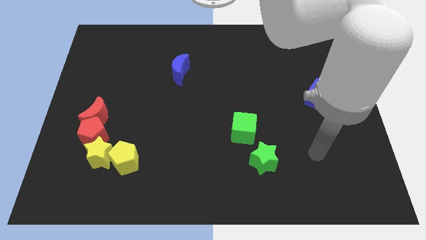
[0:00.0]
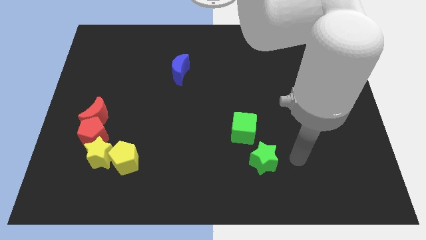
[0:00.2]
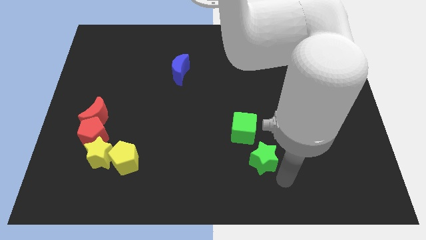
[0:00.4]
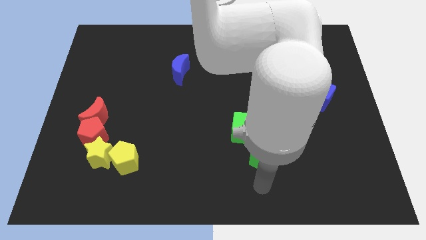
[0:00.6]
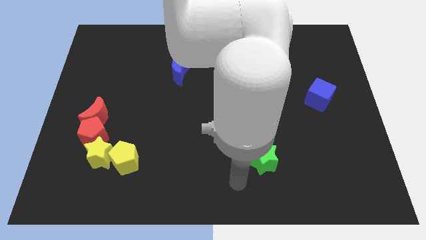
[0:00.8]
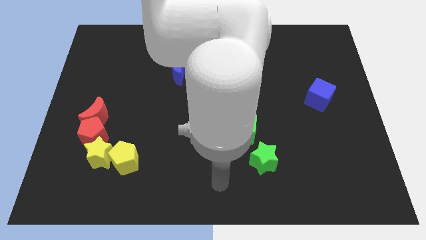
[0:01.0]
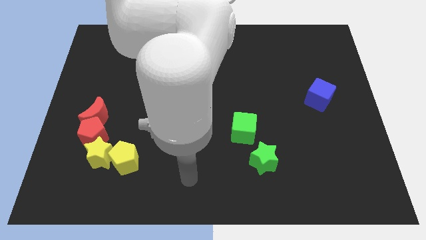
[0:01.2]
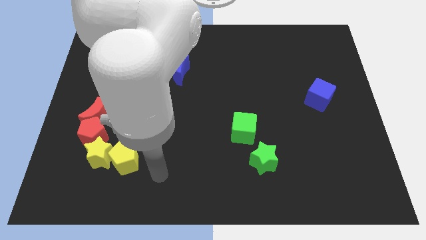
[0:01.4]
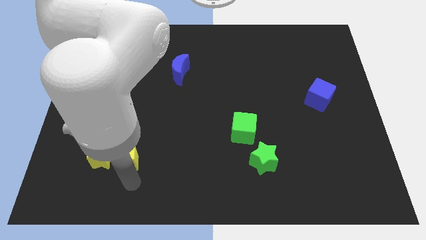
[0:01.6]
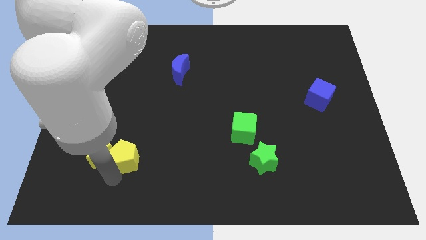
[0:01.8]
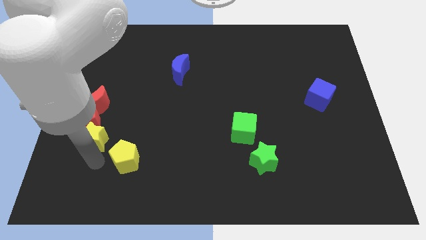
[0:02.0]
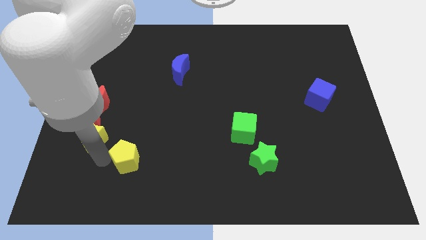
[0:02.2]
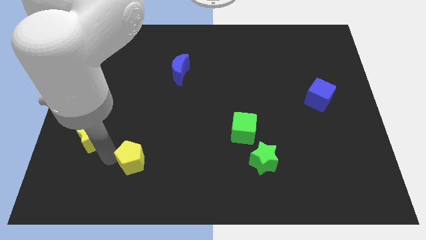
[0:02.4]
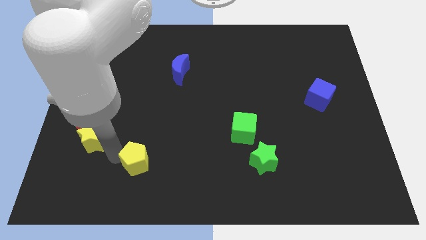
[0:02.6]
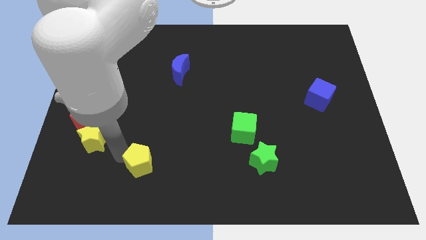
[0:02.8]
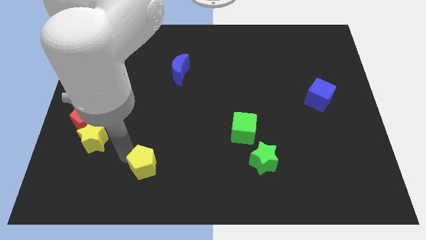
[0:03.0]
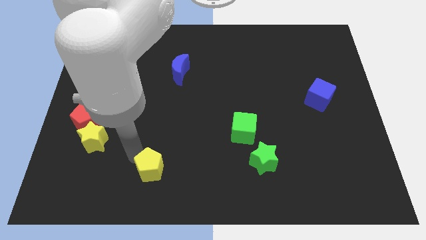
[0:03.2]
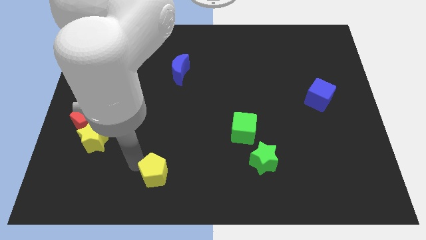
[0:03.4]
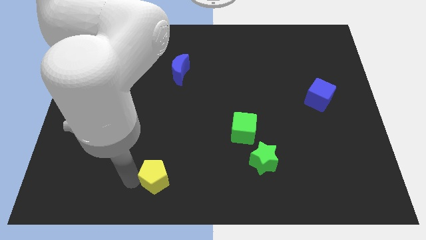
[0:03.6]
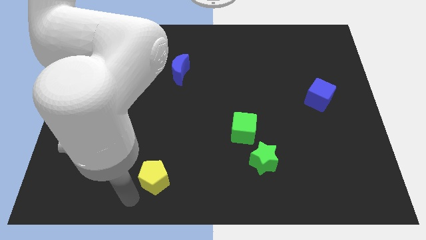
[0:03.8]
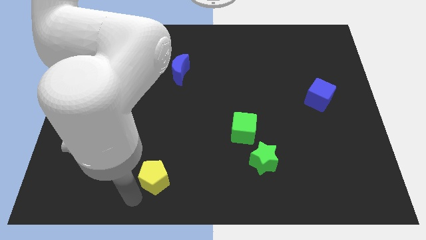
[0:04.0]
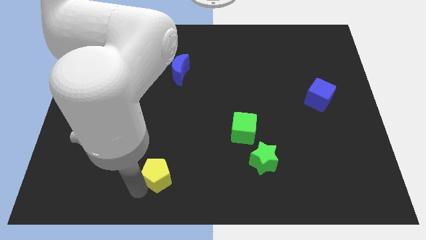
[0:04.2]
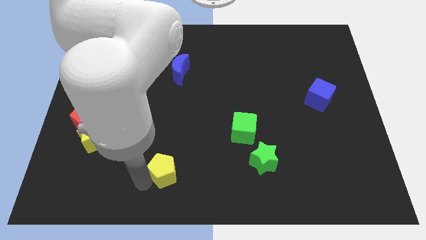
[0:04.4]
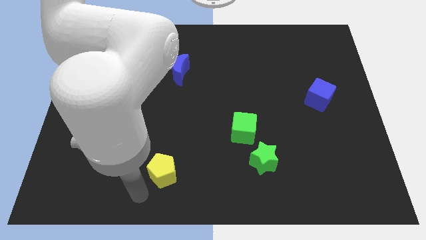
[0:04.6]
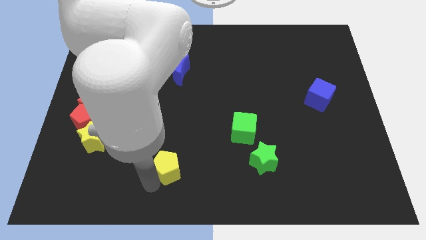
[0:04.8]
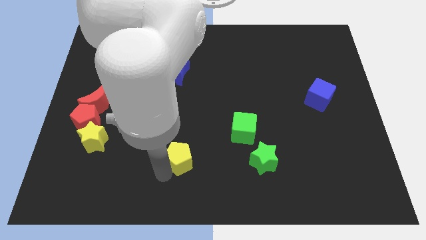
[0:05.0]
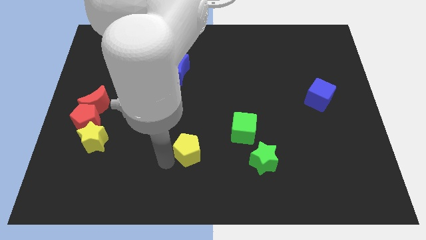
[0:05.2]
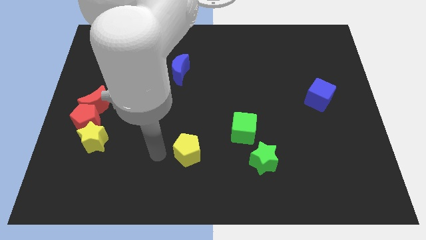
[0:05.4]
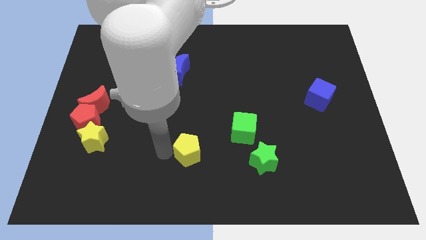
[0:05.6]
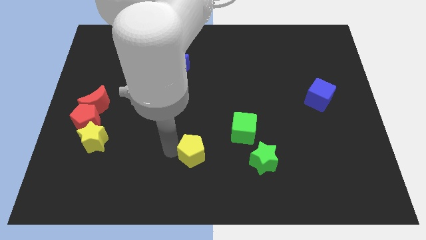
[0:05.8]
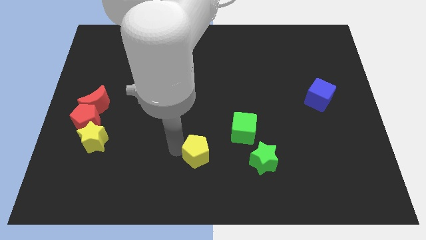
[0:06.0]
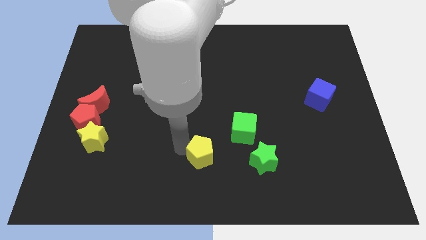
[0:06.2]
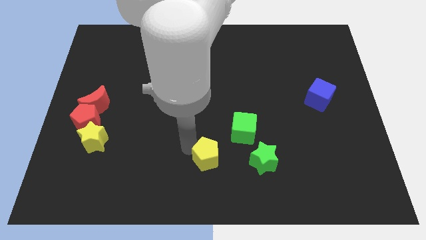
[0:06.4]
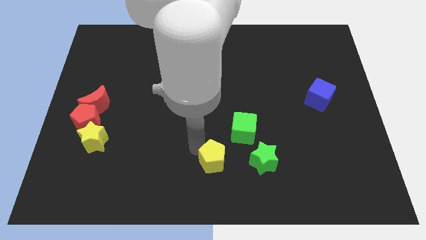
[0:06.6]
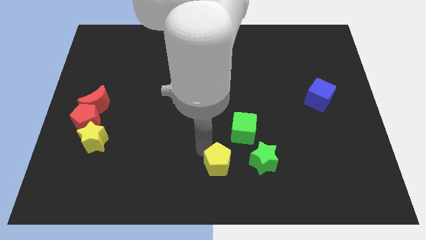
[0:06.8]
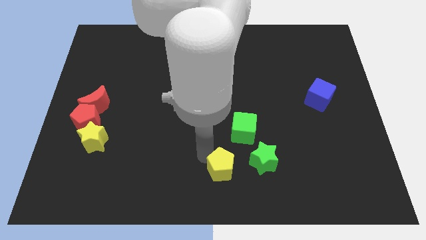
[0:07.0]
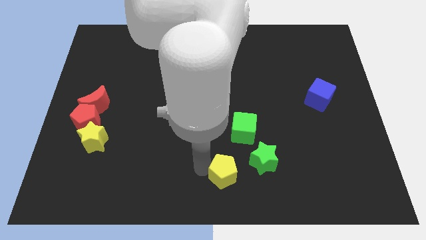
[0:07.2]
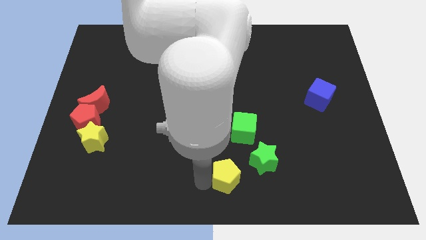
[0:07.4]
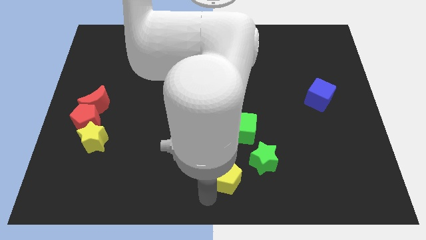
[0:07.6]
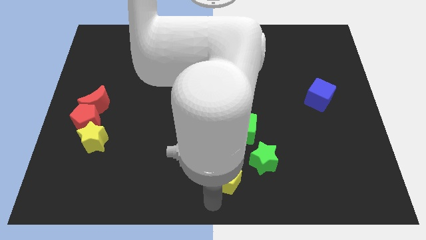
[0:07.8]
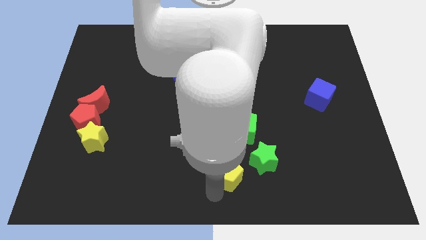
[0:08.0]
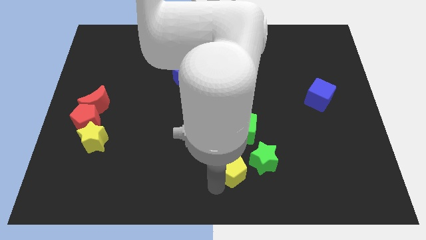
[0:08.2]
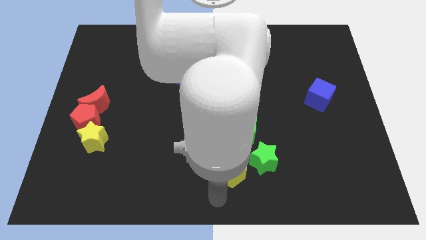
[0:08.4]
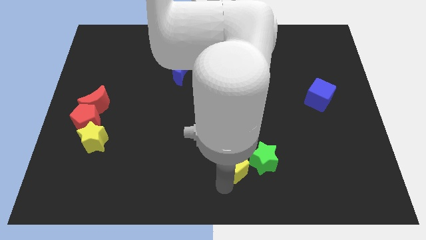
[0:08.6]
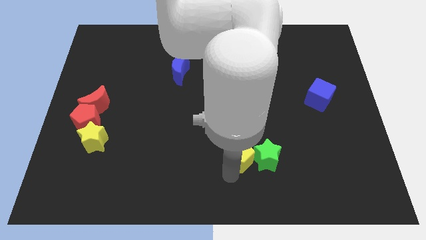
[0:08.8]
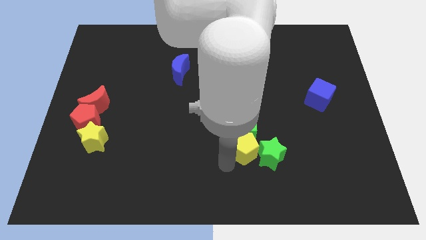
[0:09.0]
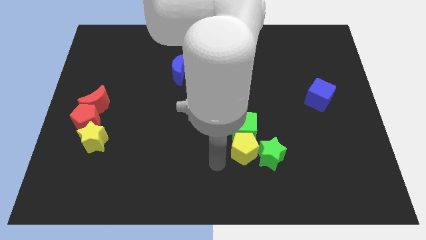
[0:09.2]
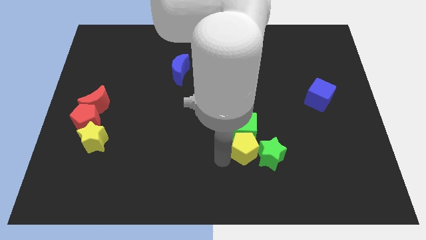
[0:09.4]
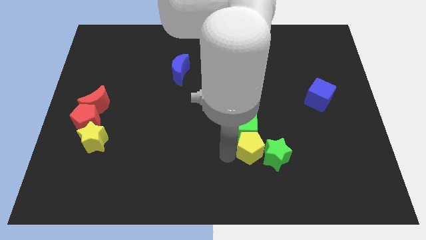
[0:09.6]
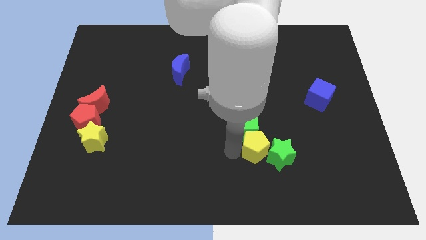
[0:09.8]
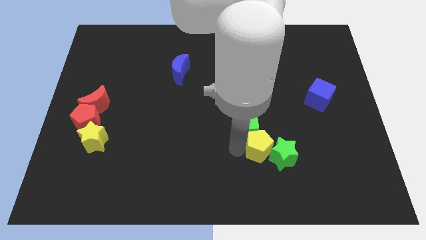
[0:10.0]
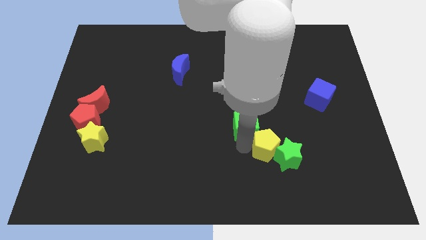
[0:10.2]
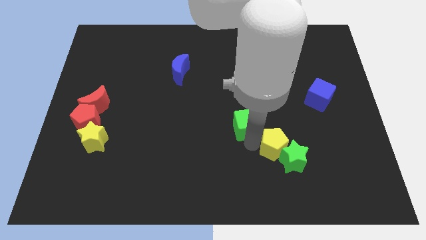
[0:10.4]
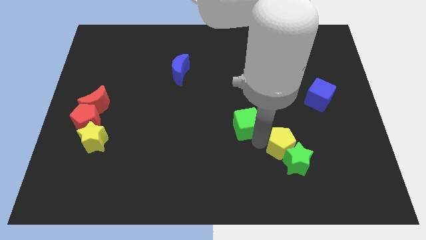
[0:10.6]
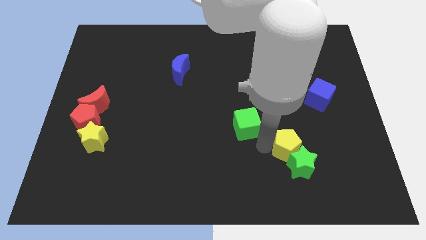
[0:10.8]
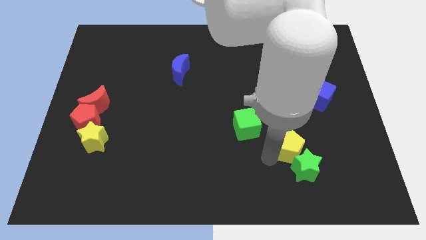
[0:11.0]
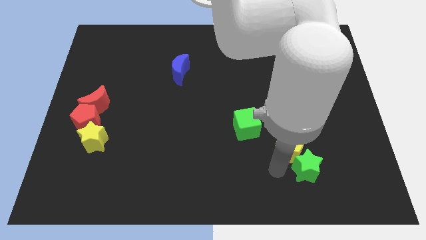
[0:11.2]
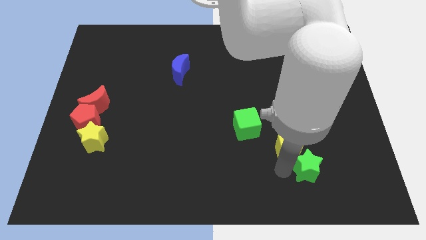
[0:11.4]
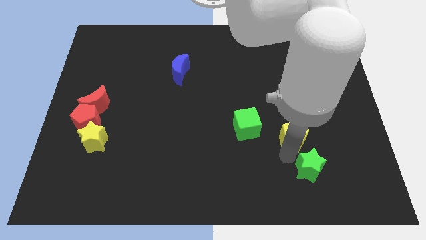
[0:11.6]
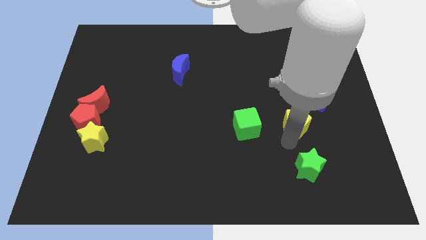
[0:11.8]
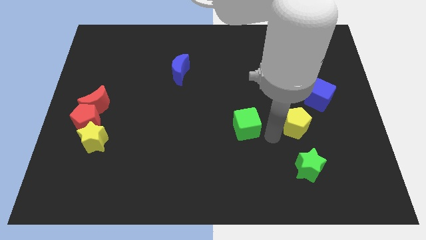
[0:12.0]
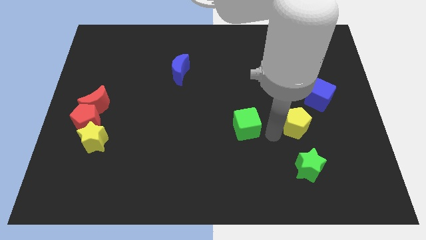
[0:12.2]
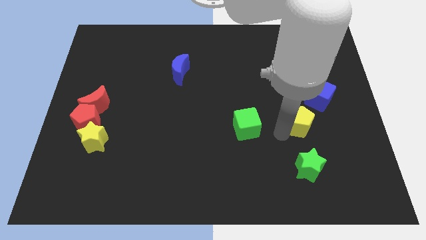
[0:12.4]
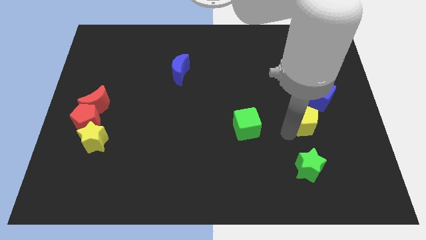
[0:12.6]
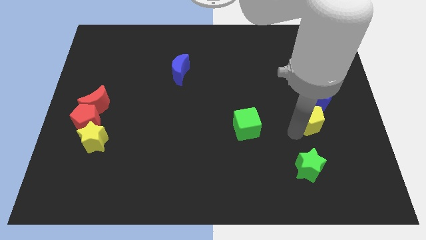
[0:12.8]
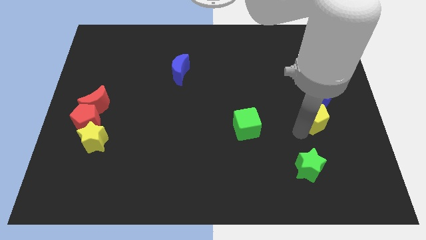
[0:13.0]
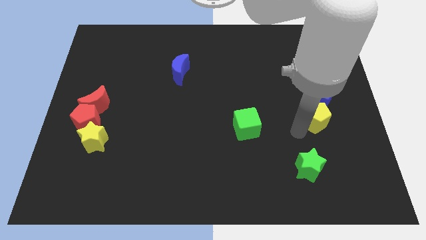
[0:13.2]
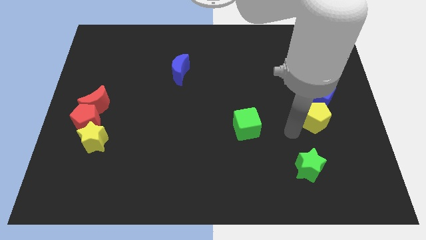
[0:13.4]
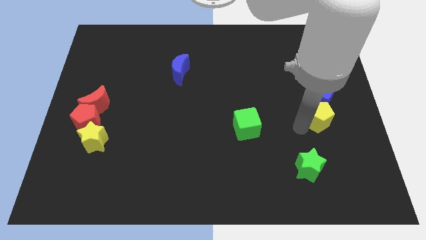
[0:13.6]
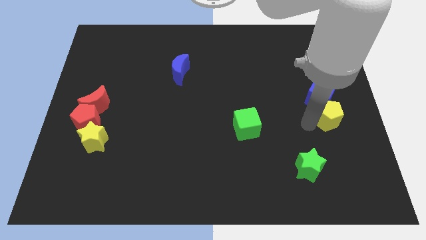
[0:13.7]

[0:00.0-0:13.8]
put the yellow pentagon to the center right
